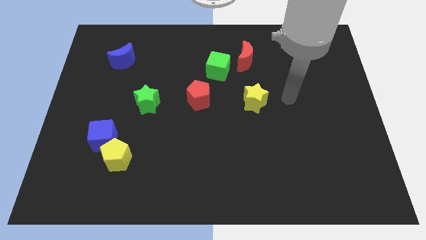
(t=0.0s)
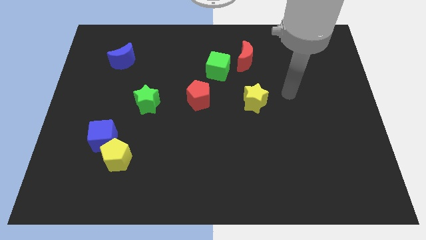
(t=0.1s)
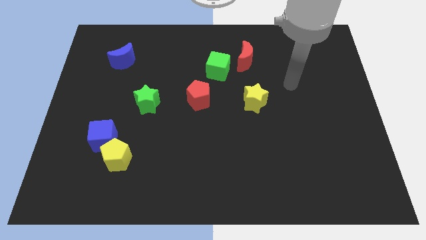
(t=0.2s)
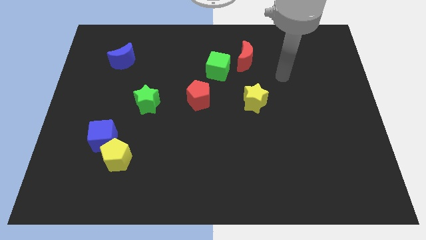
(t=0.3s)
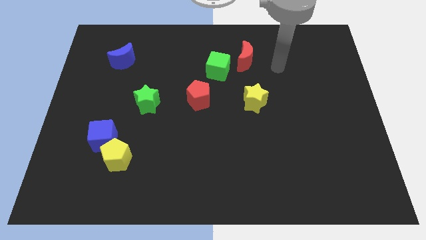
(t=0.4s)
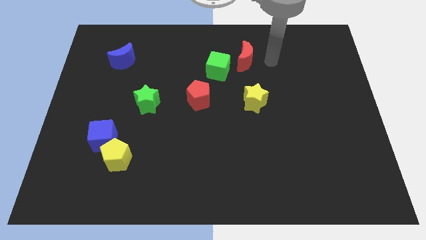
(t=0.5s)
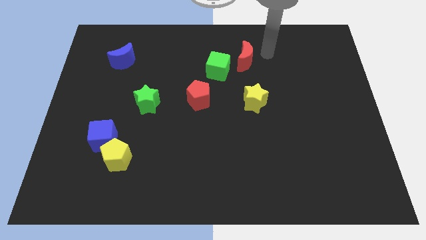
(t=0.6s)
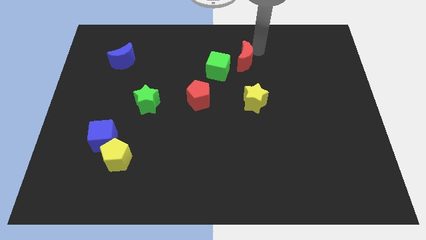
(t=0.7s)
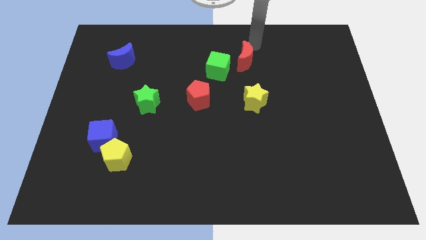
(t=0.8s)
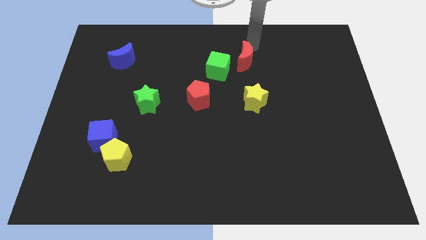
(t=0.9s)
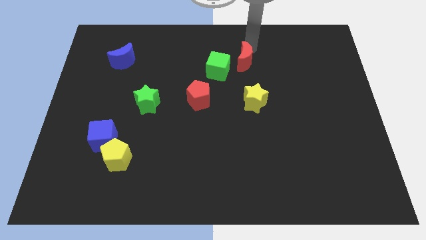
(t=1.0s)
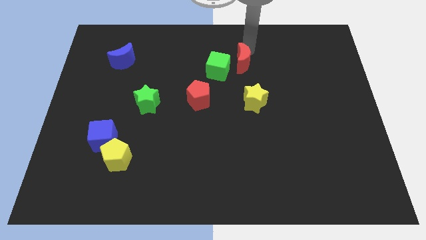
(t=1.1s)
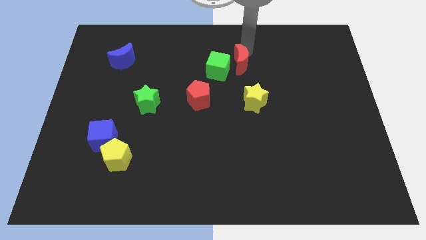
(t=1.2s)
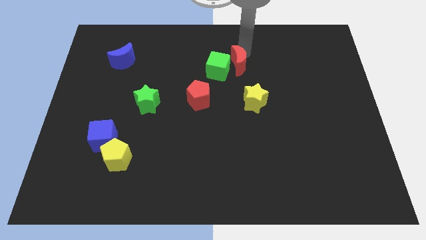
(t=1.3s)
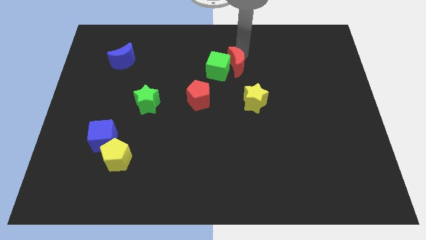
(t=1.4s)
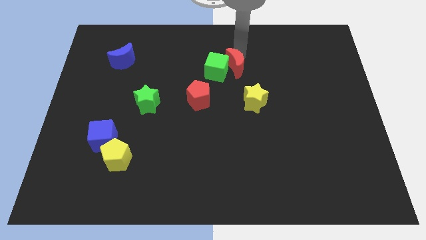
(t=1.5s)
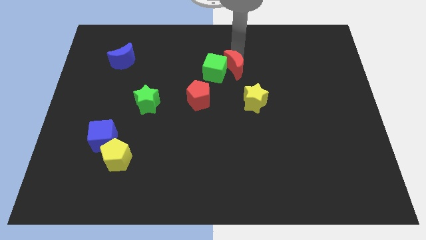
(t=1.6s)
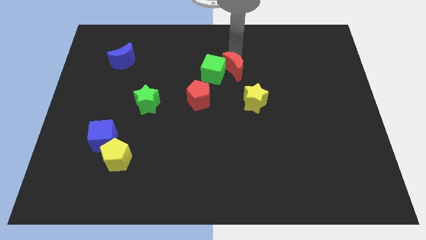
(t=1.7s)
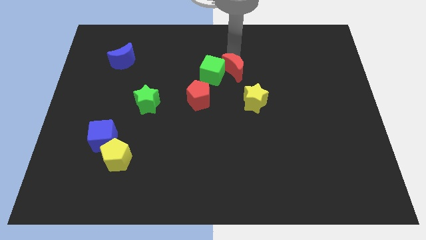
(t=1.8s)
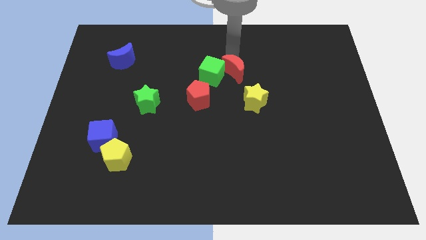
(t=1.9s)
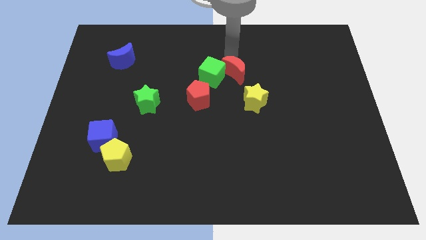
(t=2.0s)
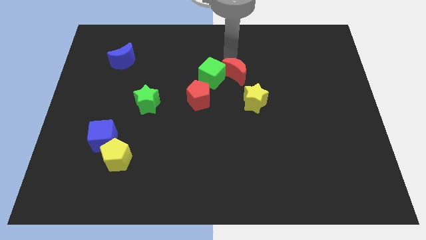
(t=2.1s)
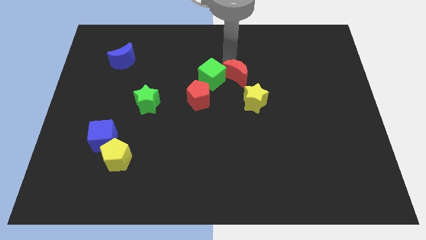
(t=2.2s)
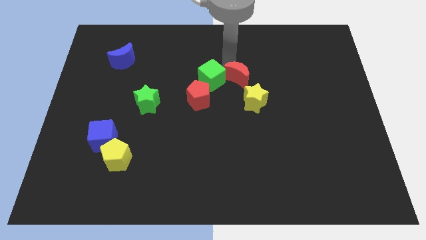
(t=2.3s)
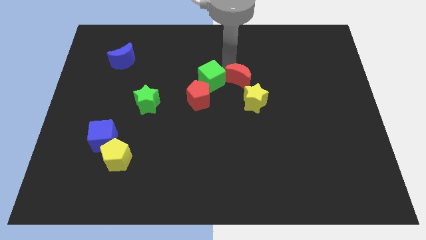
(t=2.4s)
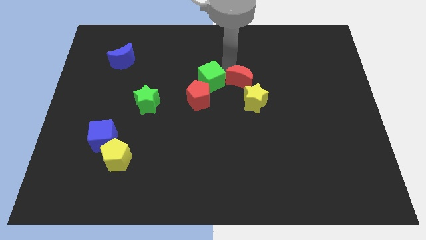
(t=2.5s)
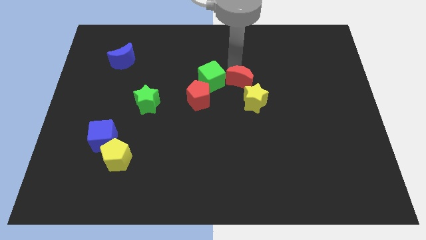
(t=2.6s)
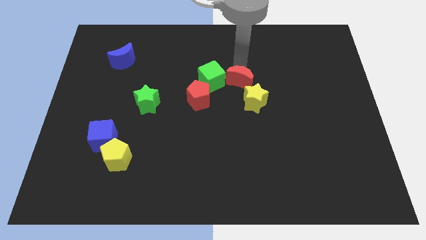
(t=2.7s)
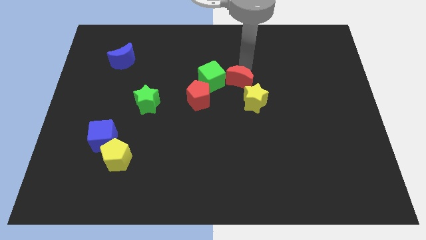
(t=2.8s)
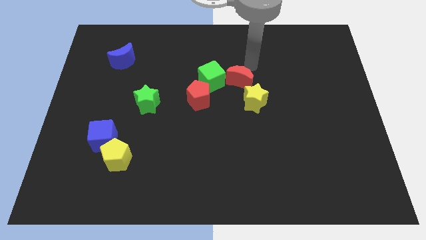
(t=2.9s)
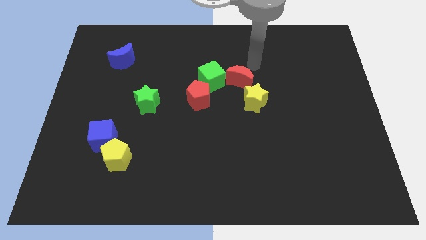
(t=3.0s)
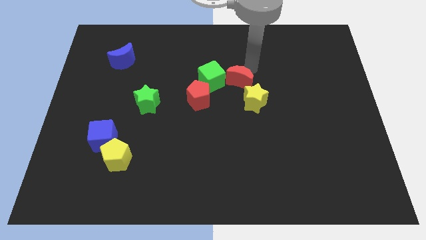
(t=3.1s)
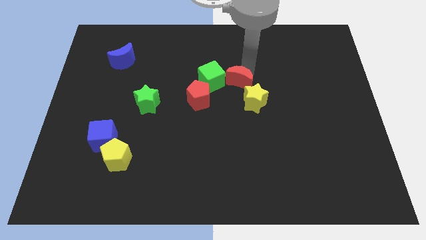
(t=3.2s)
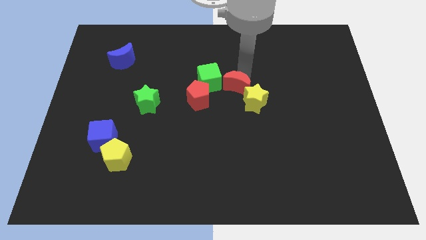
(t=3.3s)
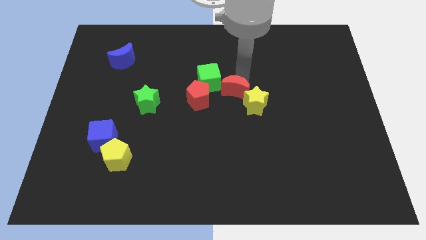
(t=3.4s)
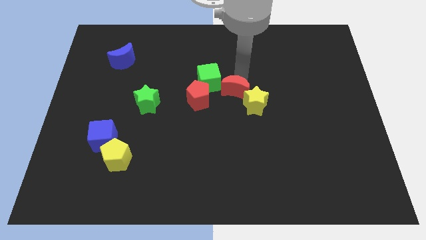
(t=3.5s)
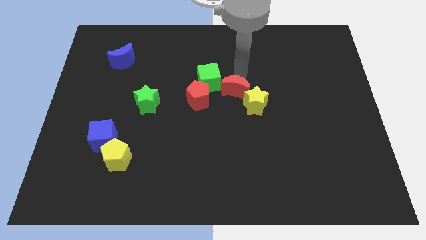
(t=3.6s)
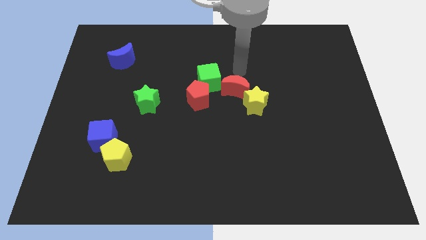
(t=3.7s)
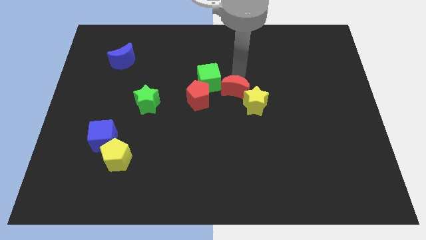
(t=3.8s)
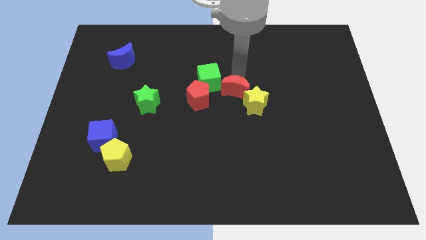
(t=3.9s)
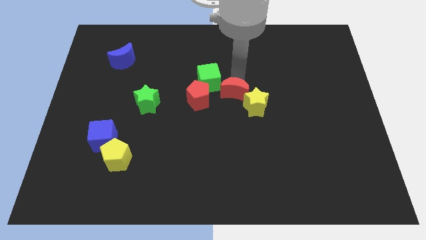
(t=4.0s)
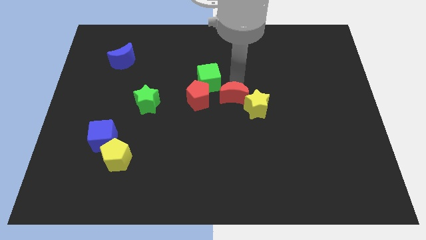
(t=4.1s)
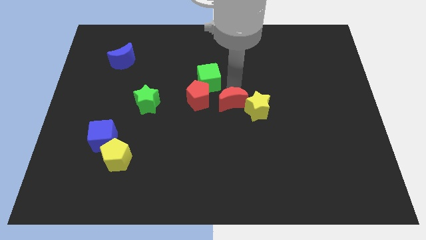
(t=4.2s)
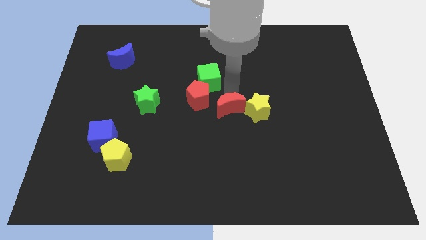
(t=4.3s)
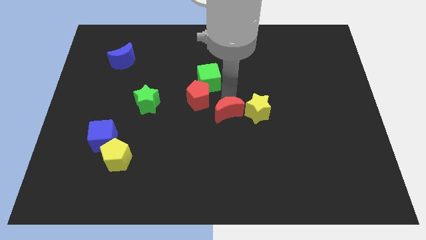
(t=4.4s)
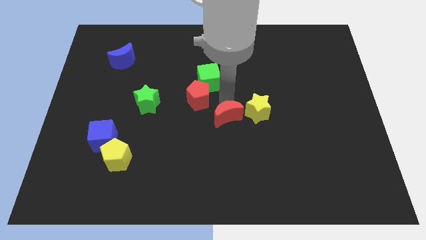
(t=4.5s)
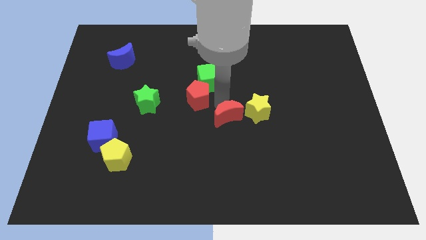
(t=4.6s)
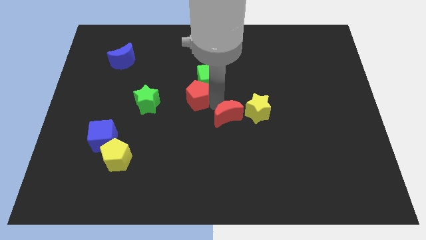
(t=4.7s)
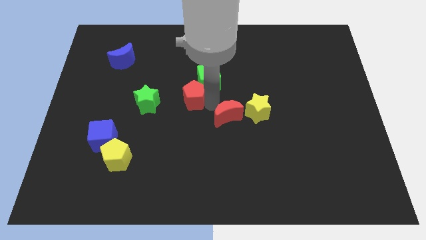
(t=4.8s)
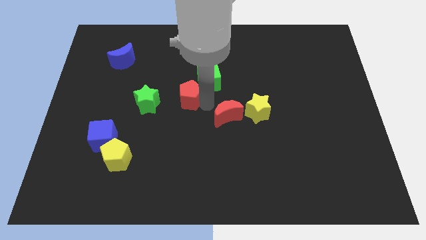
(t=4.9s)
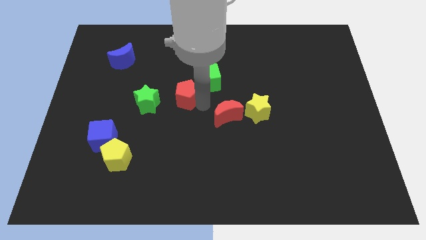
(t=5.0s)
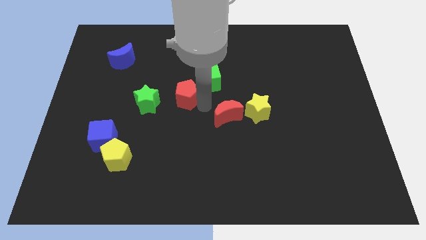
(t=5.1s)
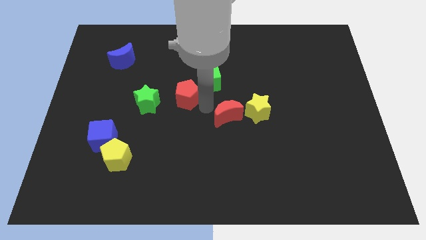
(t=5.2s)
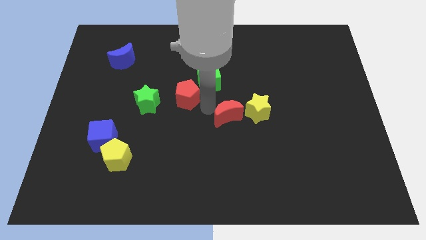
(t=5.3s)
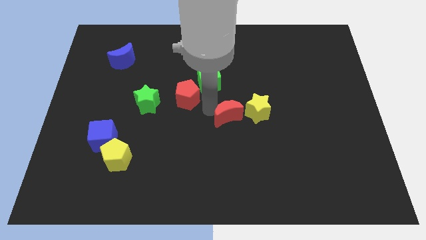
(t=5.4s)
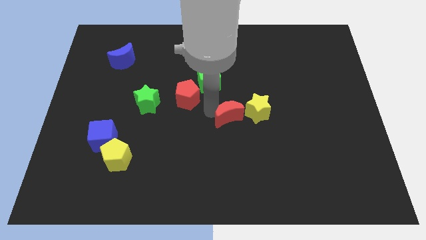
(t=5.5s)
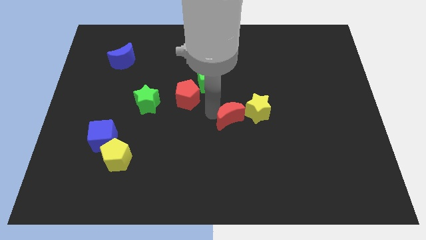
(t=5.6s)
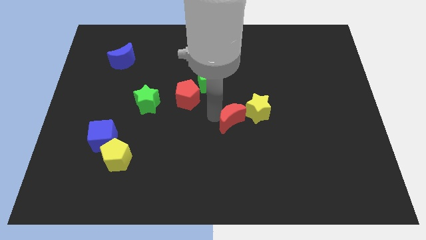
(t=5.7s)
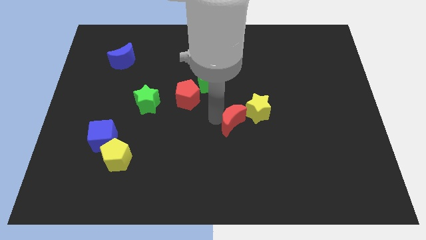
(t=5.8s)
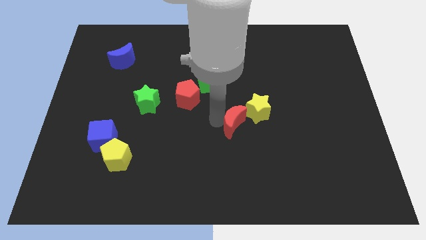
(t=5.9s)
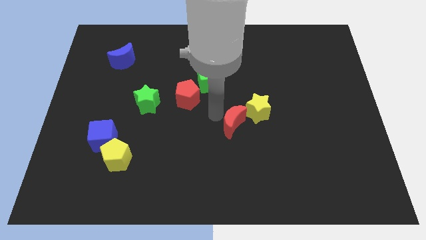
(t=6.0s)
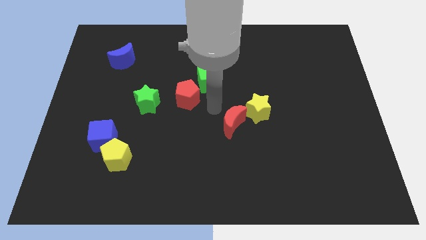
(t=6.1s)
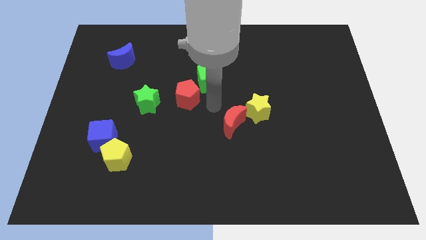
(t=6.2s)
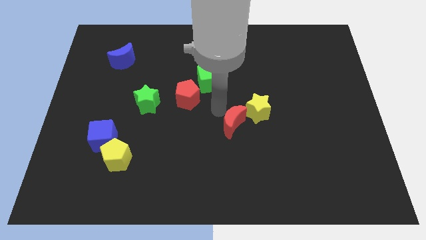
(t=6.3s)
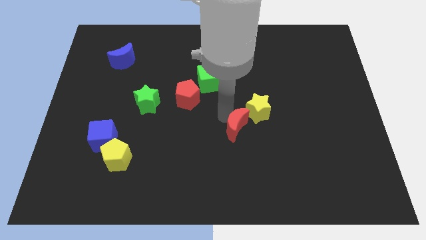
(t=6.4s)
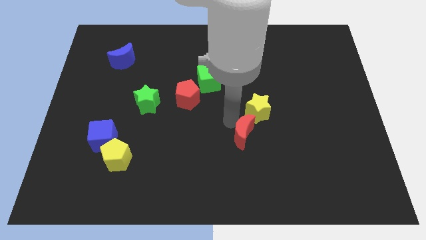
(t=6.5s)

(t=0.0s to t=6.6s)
move the red moon to the bottom side of the yellow star

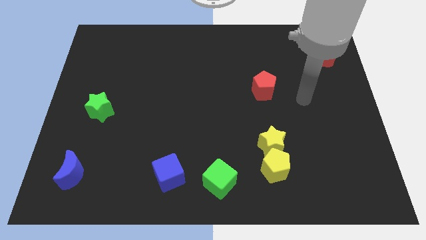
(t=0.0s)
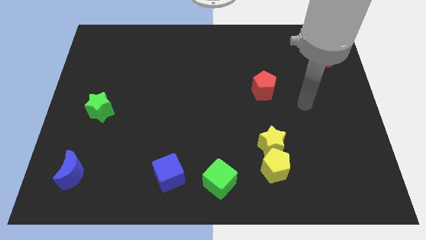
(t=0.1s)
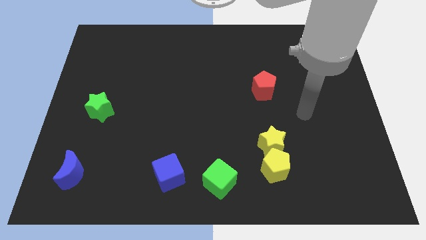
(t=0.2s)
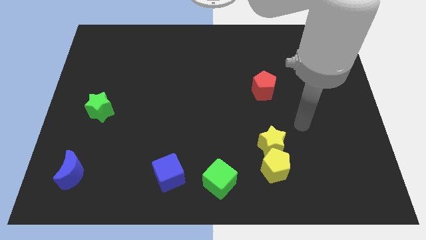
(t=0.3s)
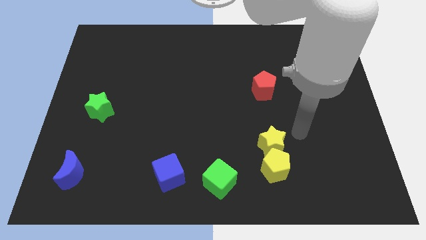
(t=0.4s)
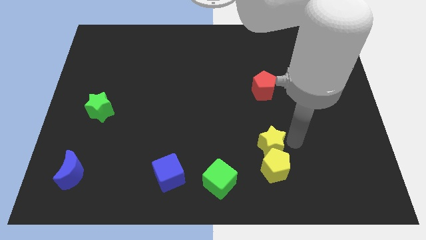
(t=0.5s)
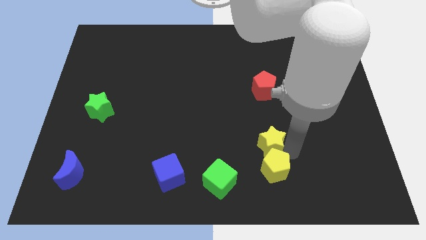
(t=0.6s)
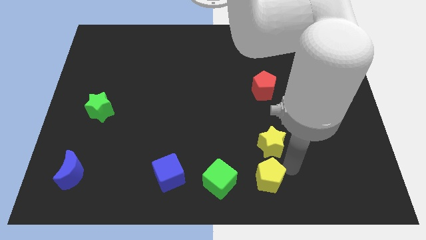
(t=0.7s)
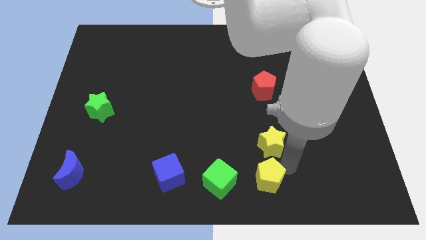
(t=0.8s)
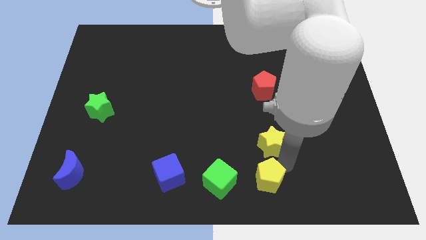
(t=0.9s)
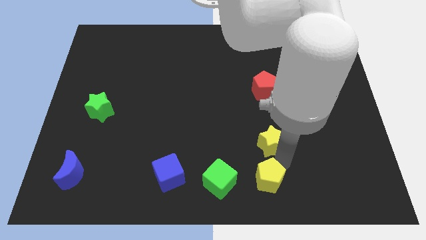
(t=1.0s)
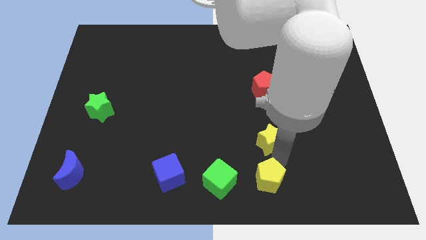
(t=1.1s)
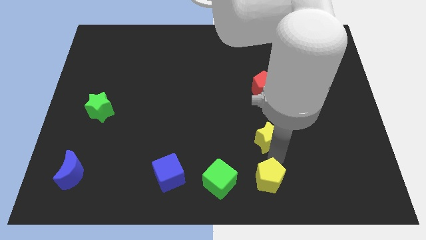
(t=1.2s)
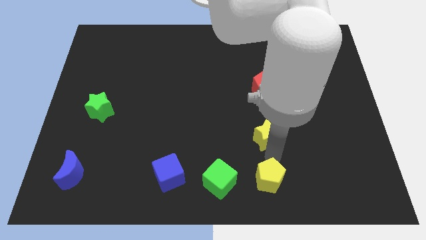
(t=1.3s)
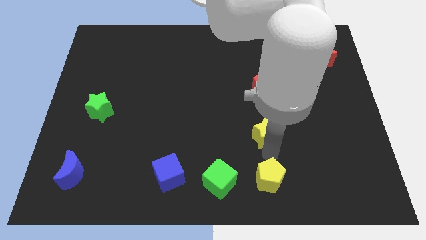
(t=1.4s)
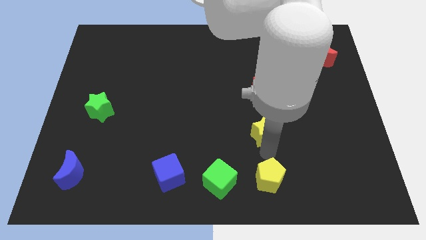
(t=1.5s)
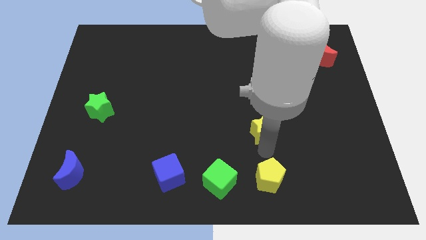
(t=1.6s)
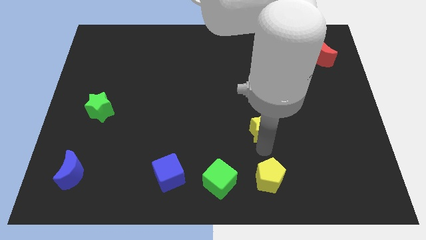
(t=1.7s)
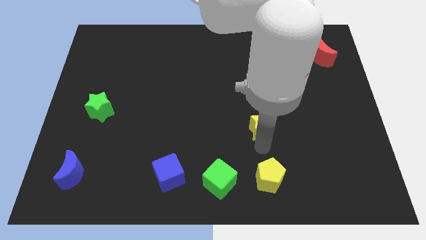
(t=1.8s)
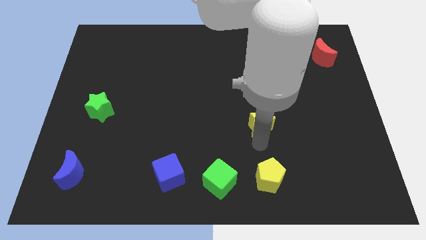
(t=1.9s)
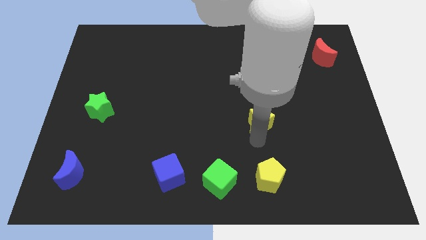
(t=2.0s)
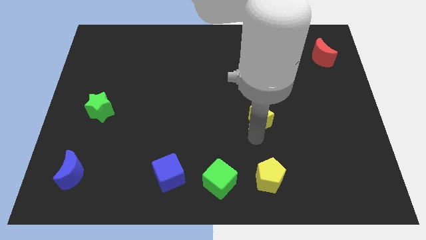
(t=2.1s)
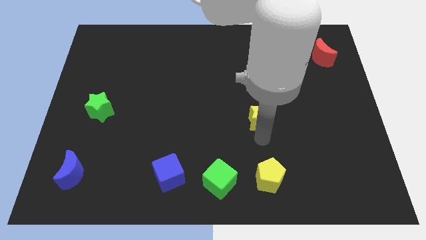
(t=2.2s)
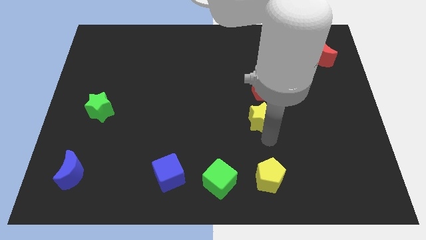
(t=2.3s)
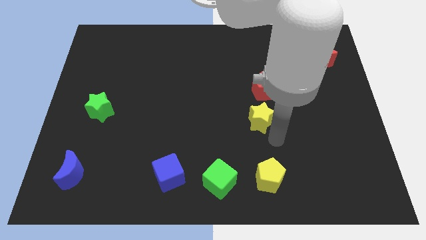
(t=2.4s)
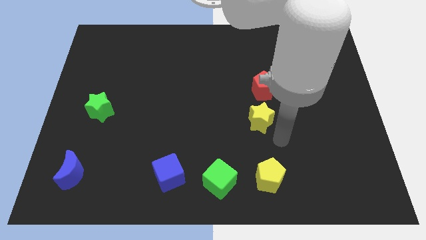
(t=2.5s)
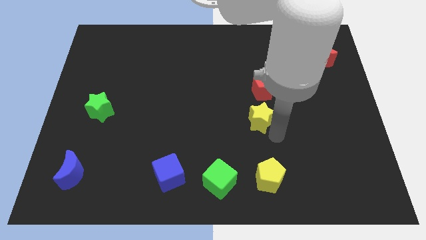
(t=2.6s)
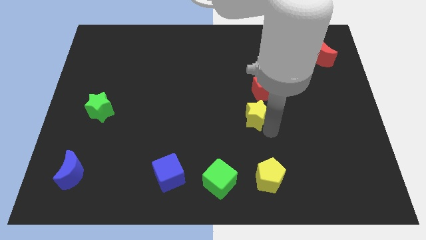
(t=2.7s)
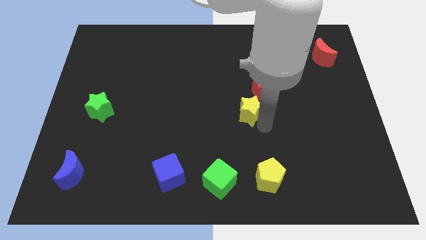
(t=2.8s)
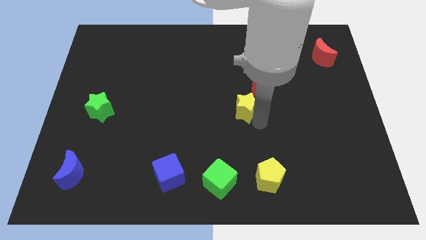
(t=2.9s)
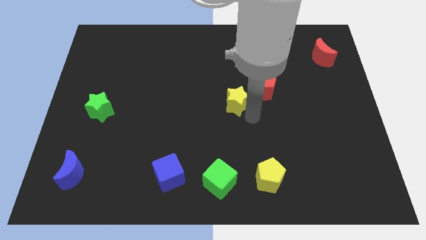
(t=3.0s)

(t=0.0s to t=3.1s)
put the yellow star left of the red pentagon
